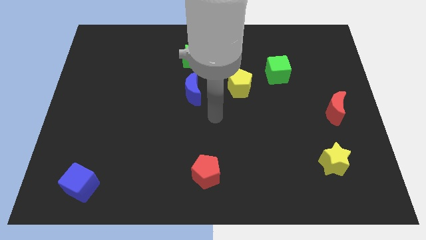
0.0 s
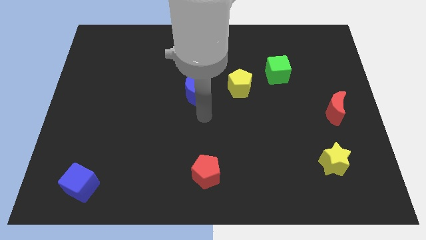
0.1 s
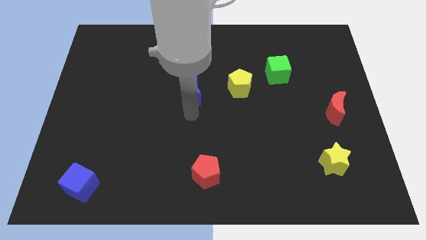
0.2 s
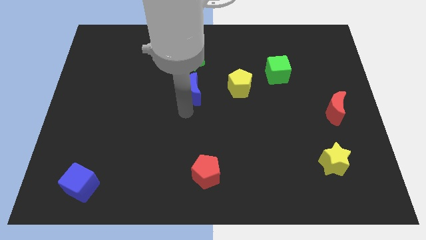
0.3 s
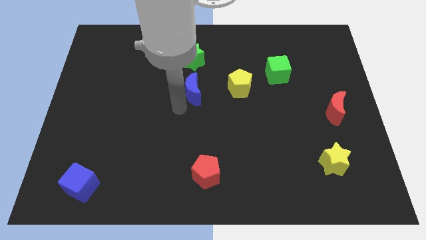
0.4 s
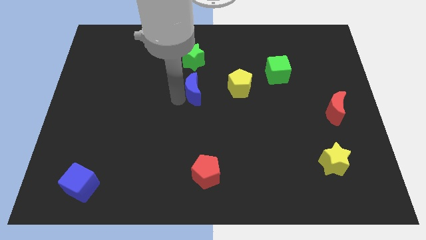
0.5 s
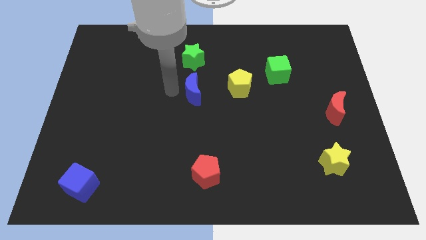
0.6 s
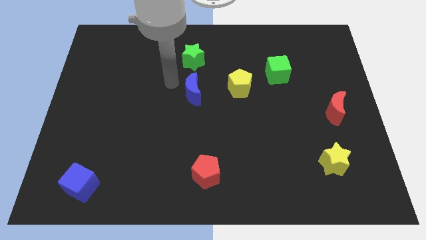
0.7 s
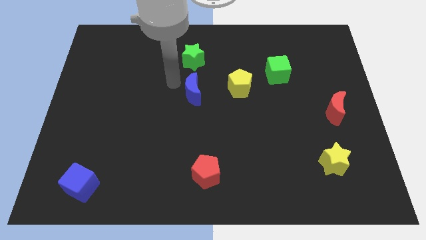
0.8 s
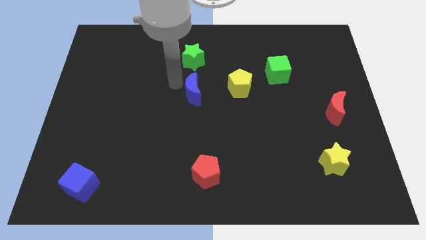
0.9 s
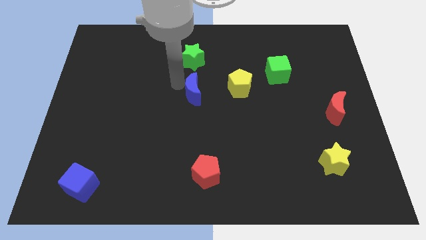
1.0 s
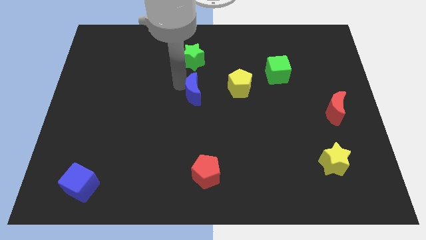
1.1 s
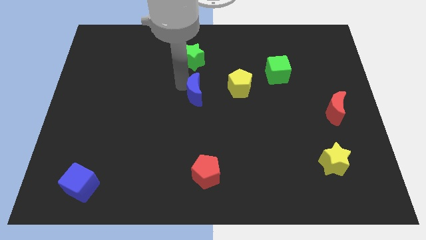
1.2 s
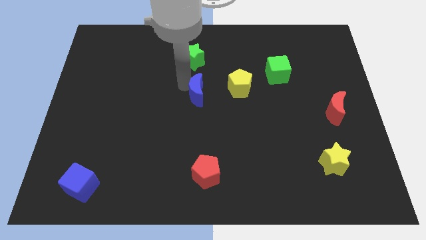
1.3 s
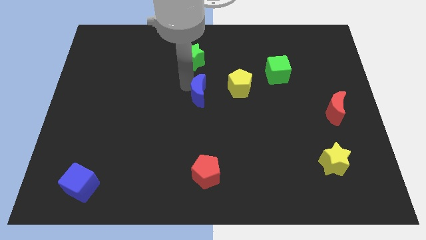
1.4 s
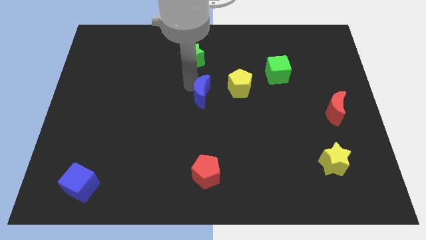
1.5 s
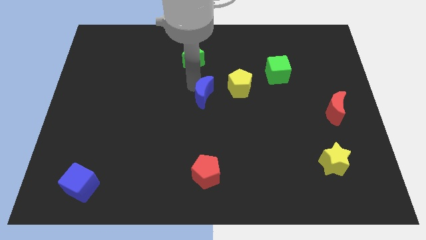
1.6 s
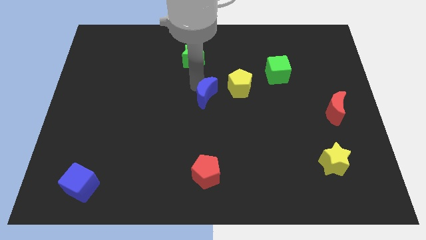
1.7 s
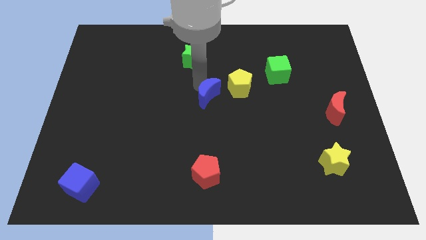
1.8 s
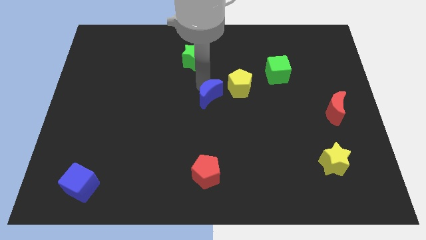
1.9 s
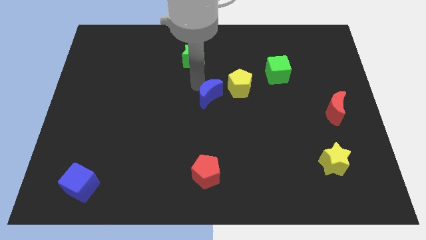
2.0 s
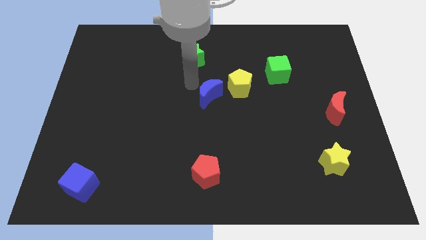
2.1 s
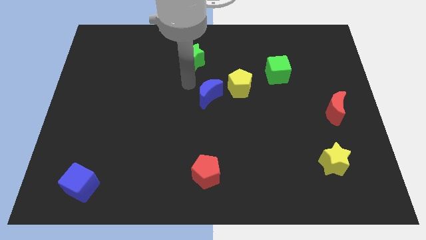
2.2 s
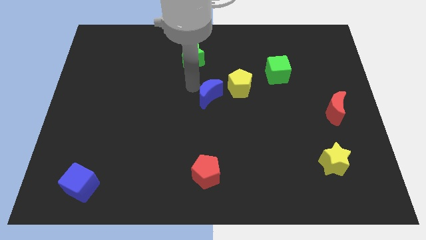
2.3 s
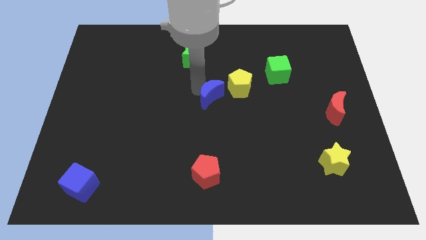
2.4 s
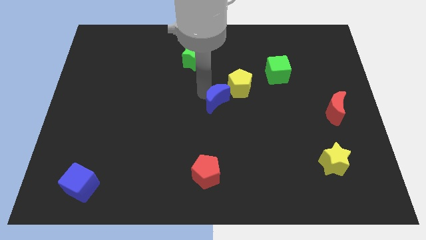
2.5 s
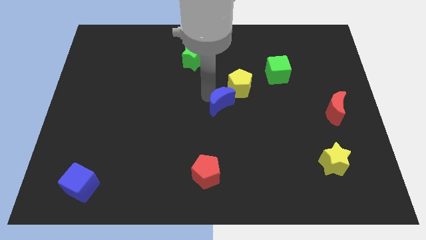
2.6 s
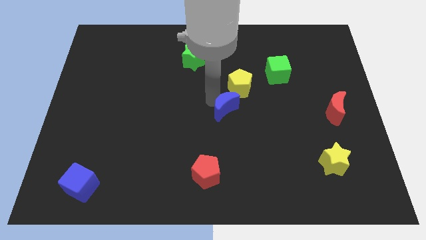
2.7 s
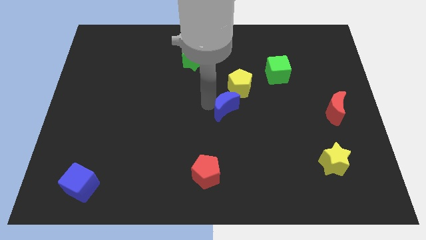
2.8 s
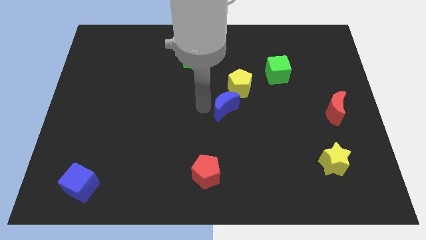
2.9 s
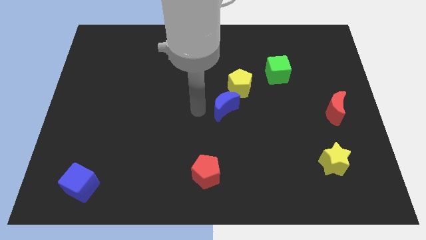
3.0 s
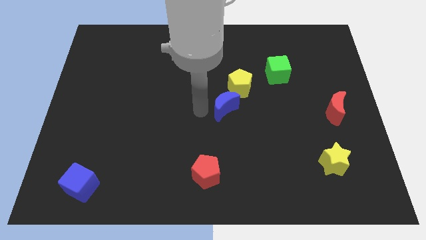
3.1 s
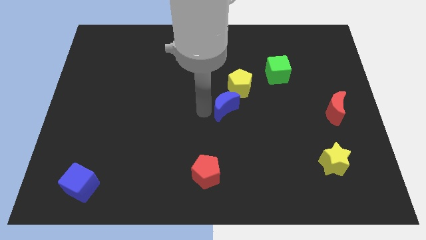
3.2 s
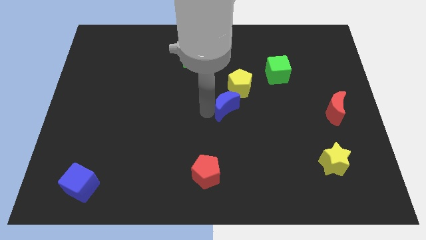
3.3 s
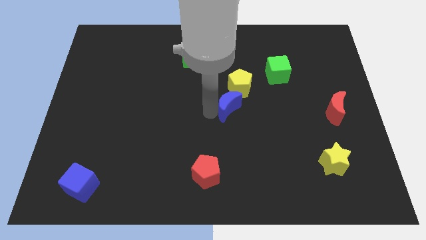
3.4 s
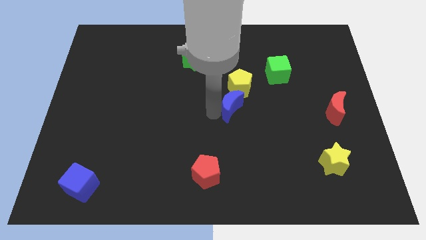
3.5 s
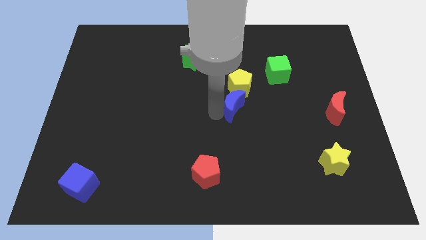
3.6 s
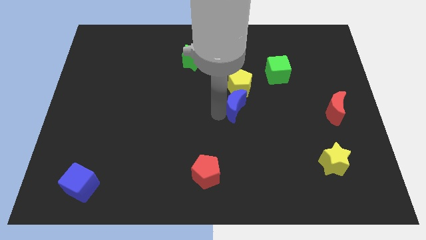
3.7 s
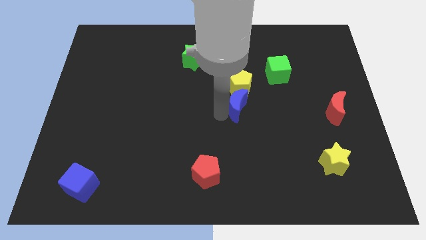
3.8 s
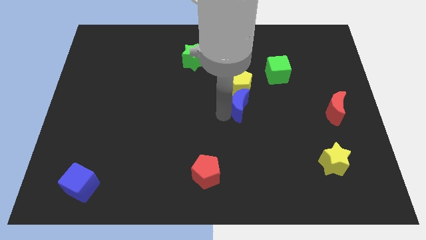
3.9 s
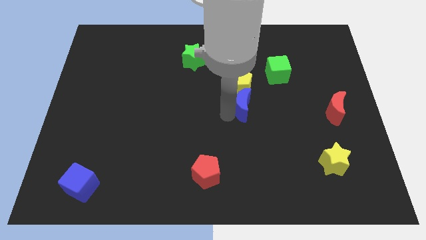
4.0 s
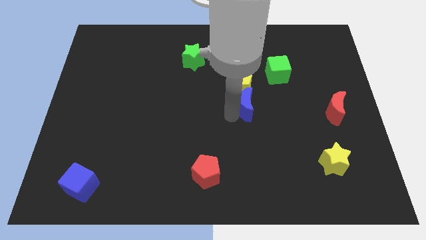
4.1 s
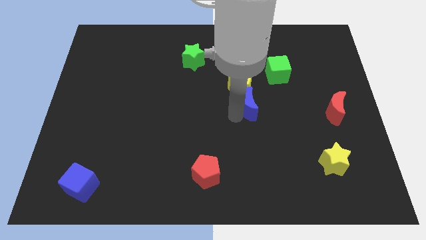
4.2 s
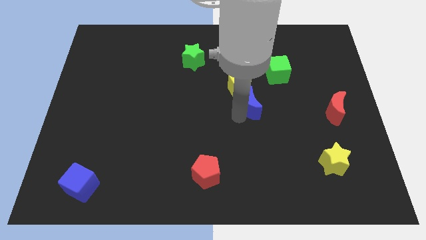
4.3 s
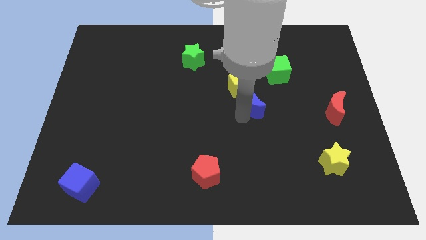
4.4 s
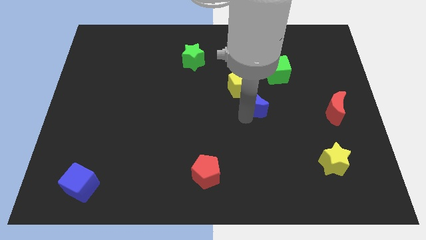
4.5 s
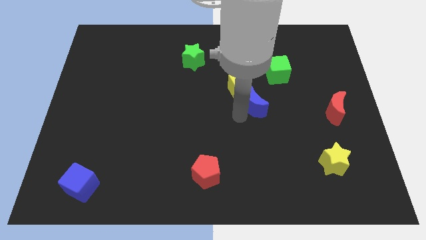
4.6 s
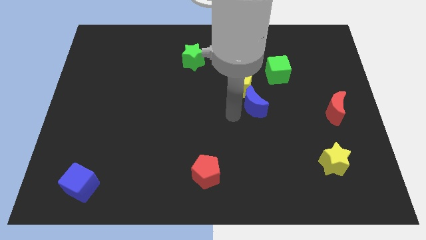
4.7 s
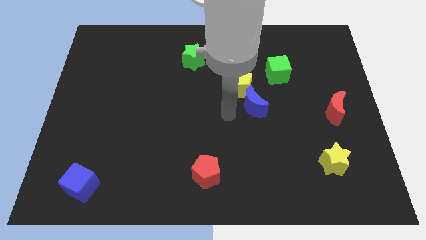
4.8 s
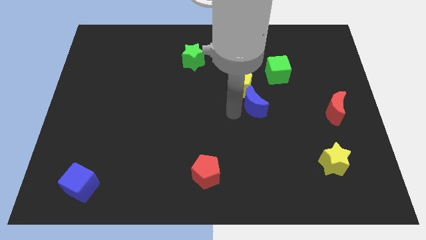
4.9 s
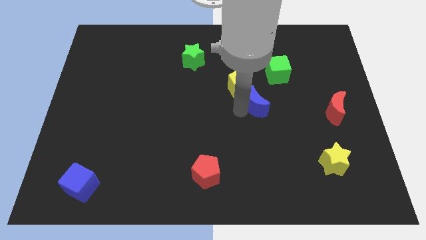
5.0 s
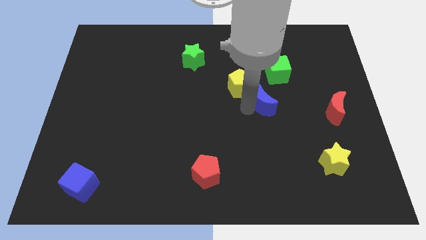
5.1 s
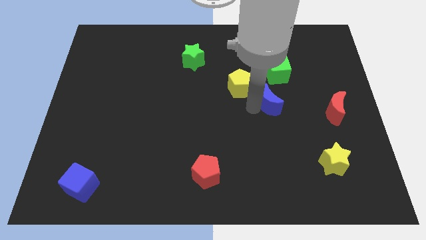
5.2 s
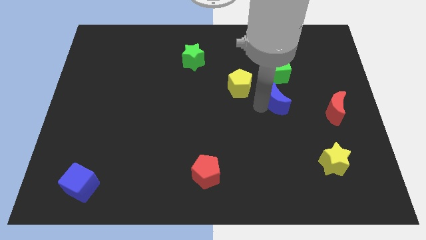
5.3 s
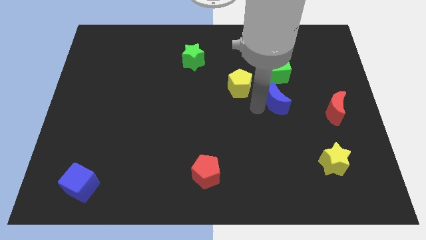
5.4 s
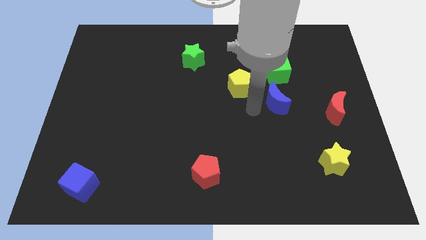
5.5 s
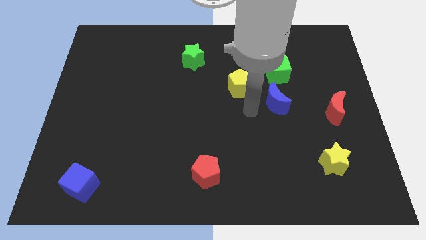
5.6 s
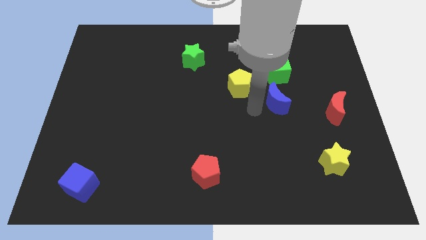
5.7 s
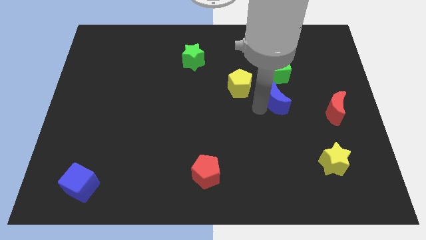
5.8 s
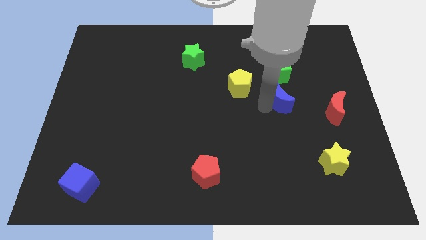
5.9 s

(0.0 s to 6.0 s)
push the blue moon to the right

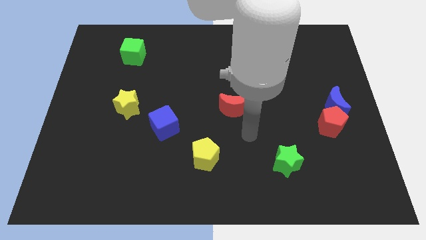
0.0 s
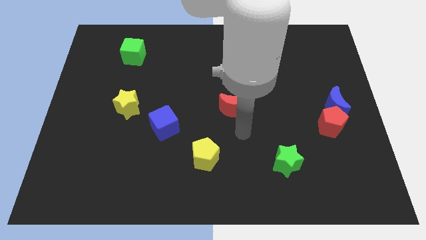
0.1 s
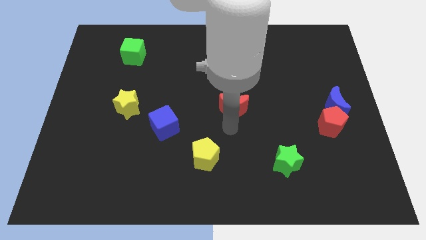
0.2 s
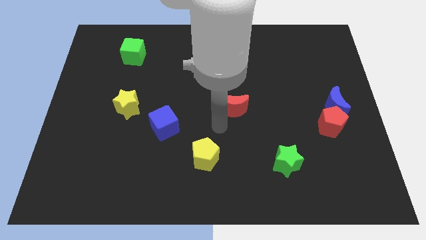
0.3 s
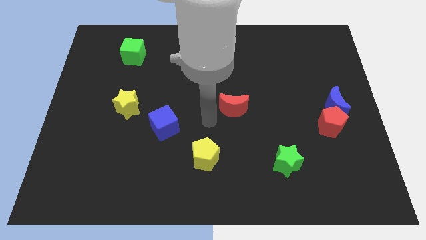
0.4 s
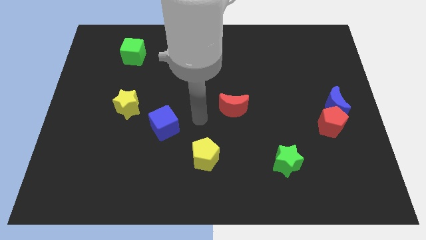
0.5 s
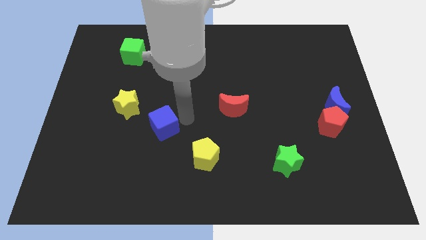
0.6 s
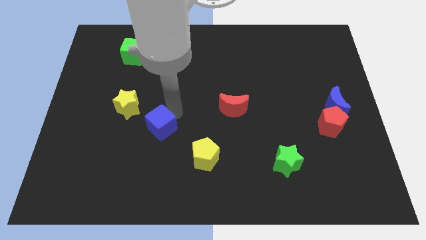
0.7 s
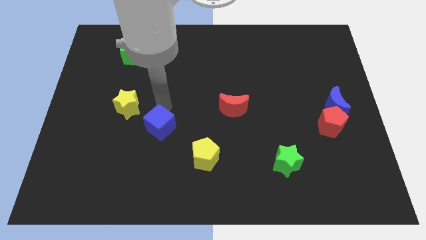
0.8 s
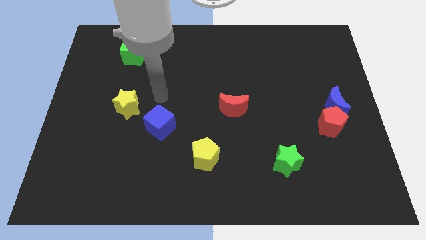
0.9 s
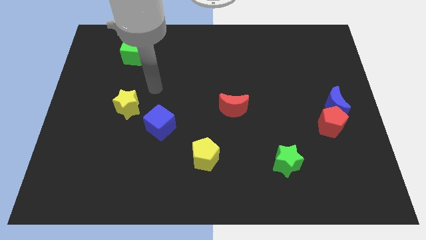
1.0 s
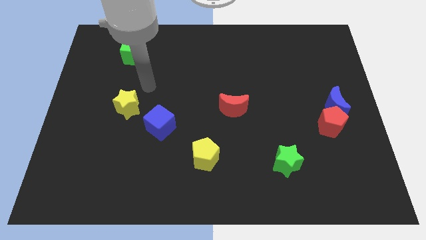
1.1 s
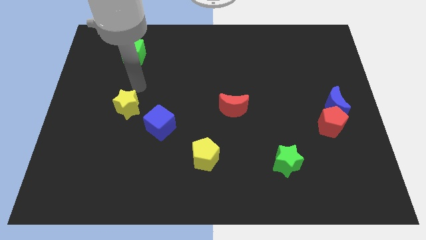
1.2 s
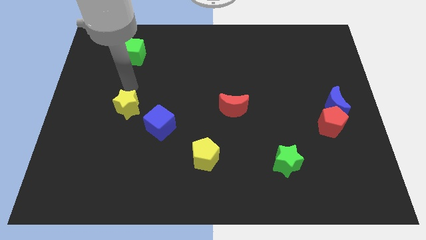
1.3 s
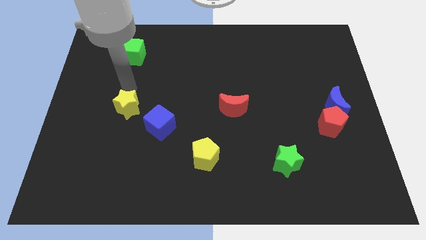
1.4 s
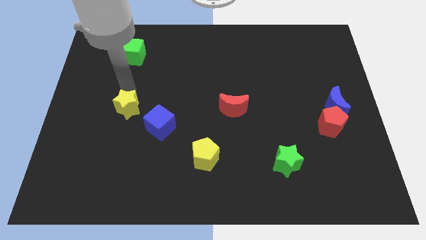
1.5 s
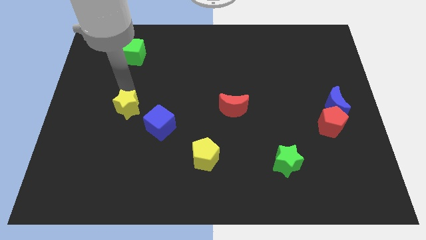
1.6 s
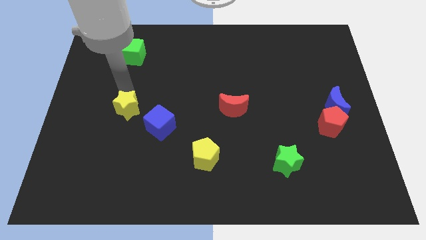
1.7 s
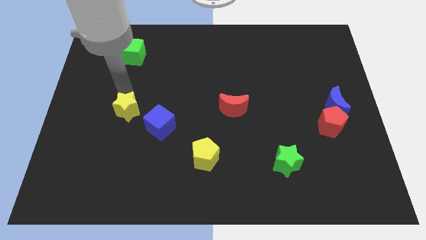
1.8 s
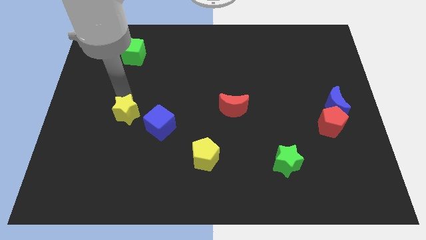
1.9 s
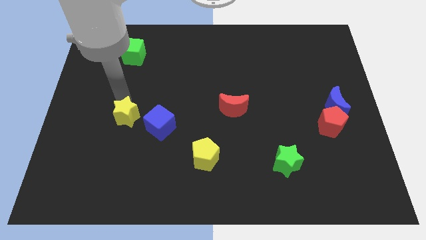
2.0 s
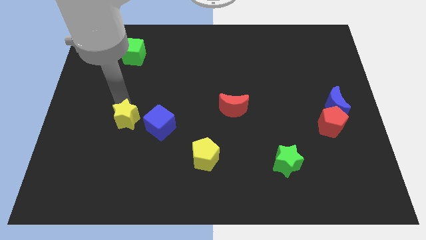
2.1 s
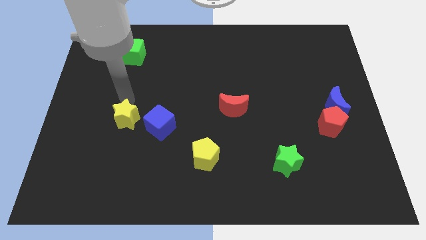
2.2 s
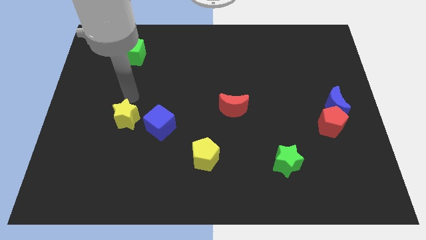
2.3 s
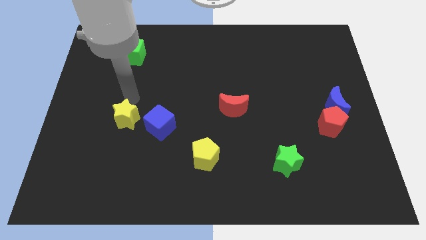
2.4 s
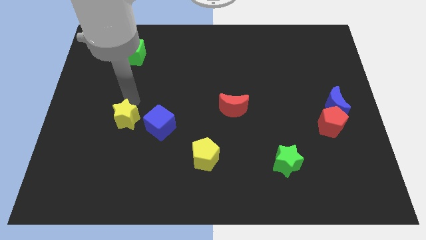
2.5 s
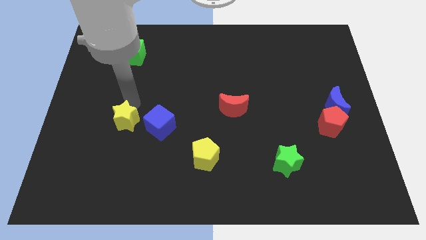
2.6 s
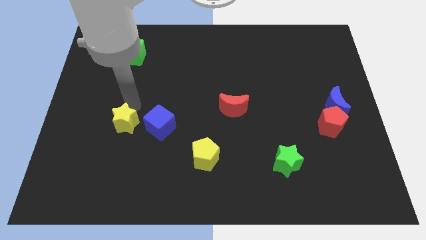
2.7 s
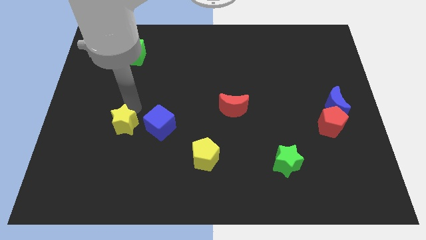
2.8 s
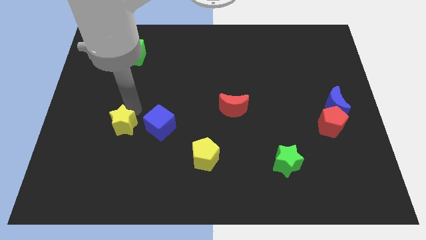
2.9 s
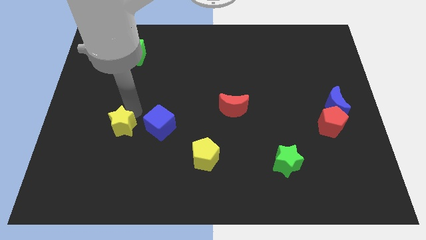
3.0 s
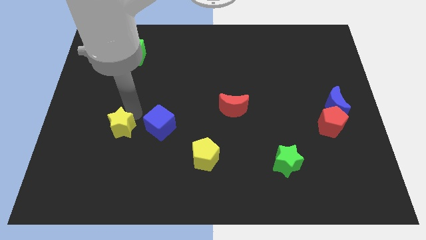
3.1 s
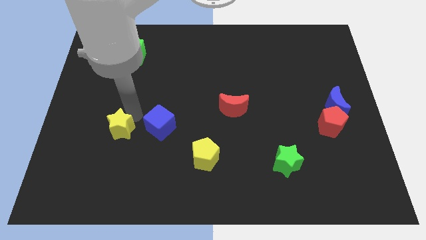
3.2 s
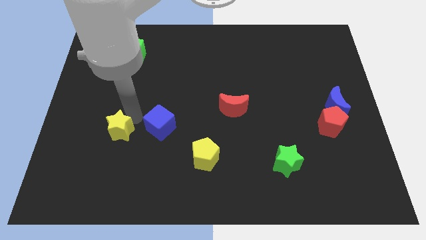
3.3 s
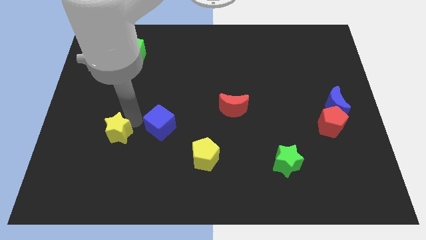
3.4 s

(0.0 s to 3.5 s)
slightly move the yellow star downwards
